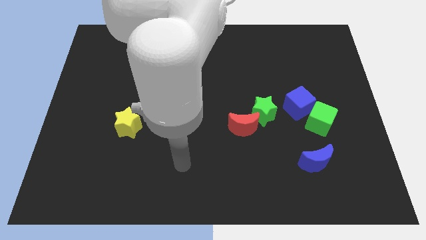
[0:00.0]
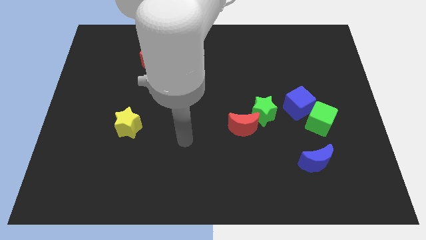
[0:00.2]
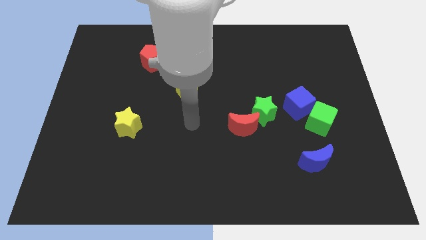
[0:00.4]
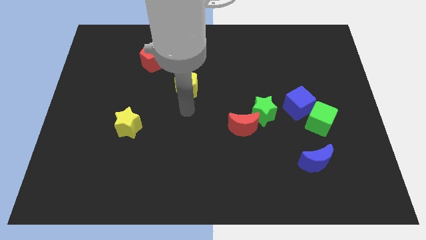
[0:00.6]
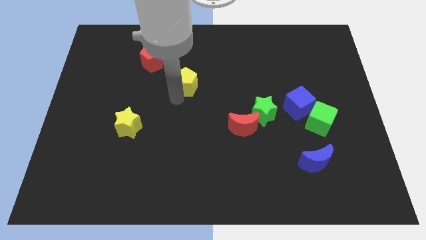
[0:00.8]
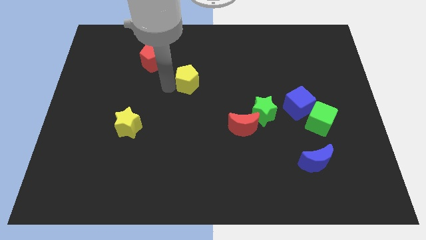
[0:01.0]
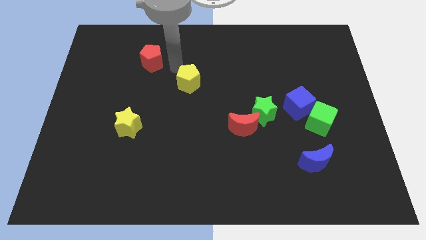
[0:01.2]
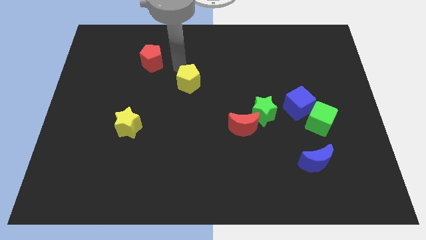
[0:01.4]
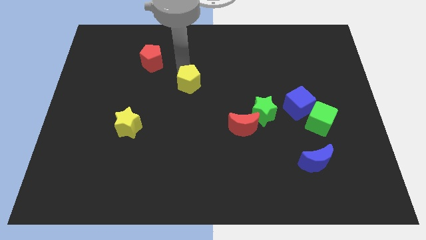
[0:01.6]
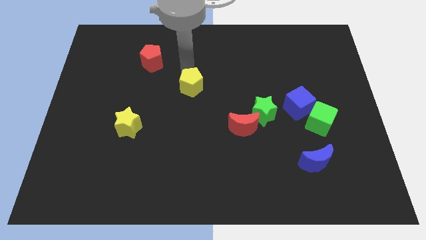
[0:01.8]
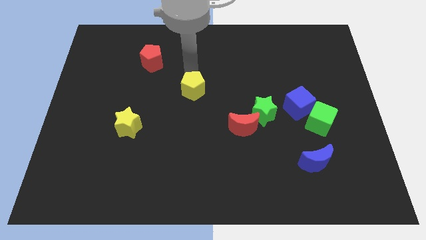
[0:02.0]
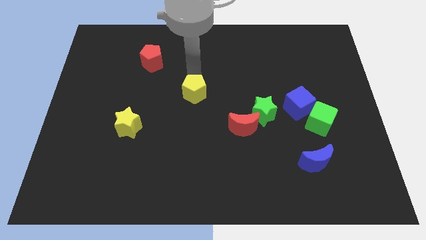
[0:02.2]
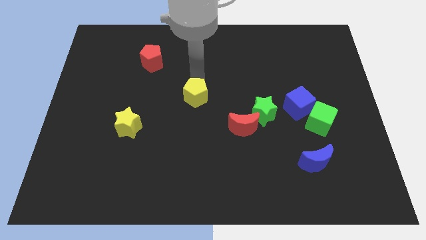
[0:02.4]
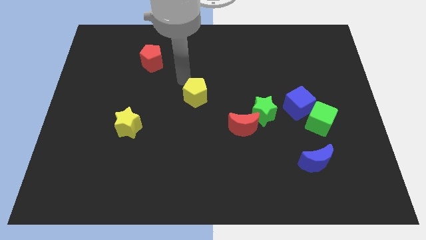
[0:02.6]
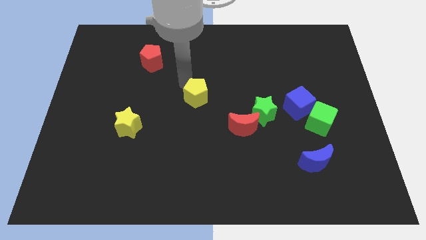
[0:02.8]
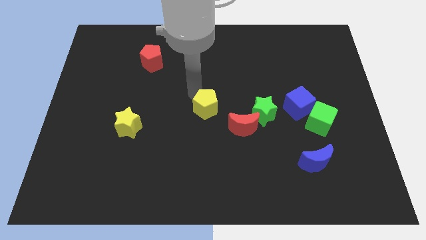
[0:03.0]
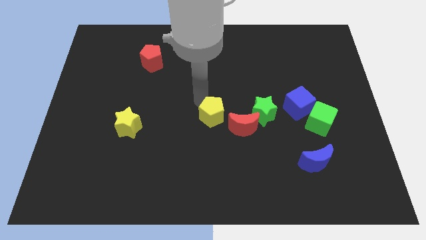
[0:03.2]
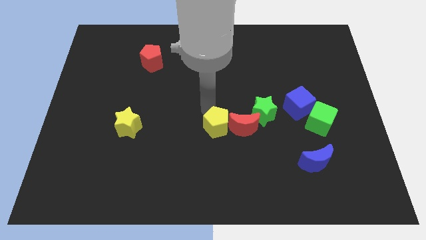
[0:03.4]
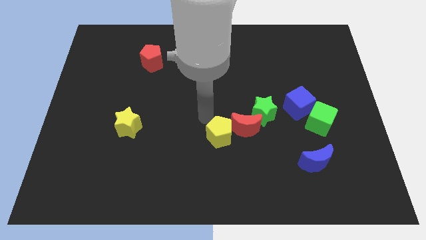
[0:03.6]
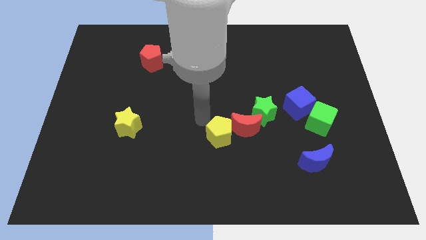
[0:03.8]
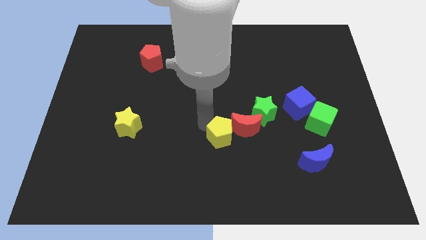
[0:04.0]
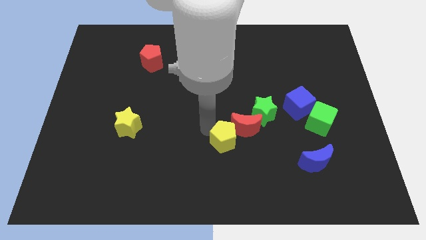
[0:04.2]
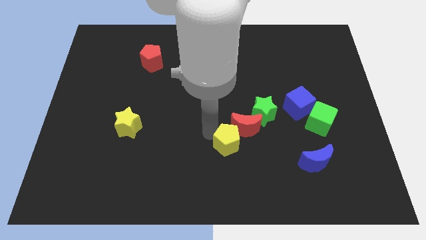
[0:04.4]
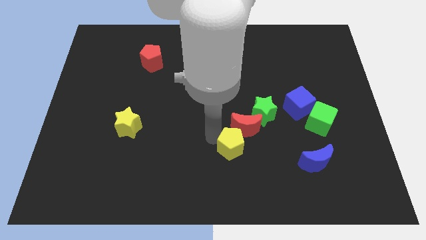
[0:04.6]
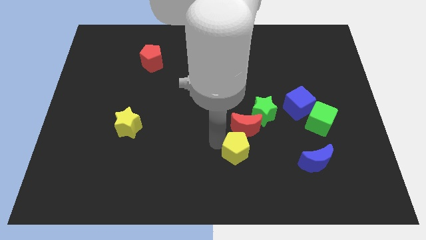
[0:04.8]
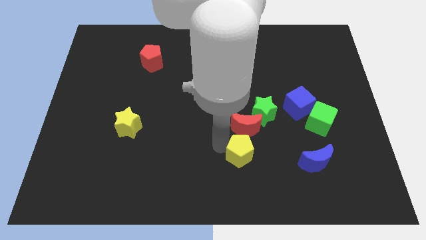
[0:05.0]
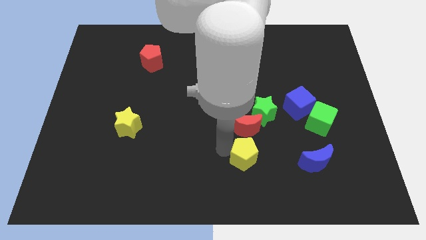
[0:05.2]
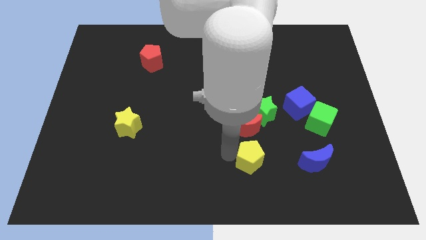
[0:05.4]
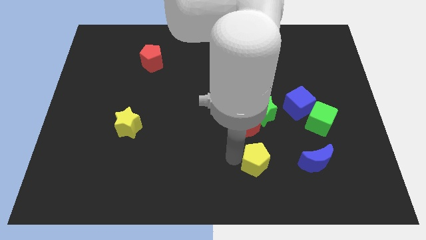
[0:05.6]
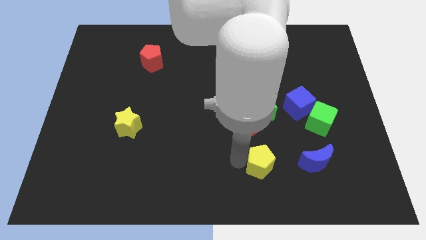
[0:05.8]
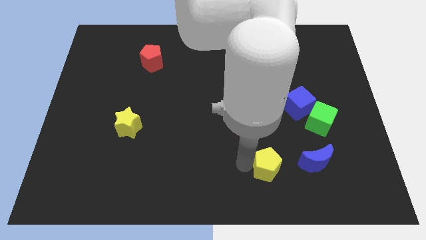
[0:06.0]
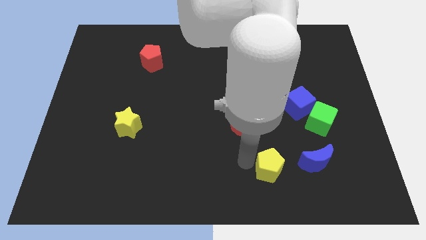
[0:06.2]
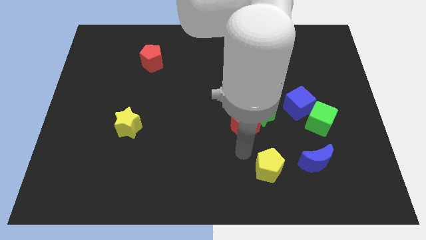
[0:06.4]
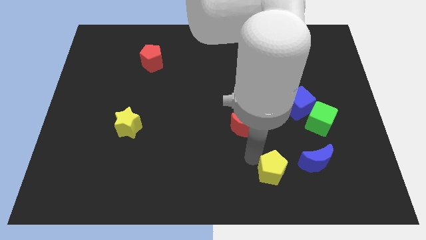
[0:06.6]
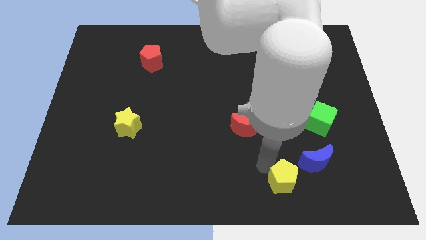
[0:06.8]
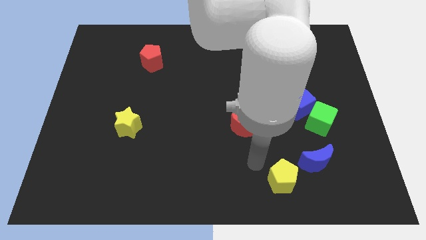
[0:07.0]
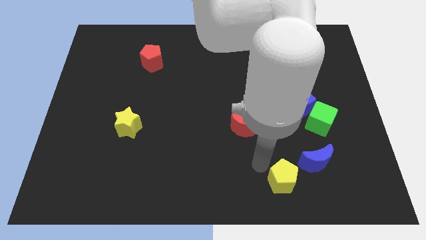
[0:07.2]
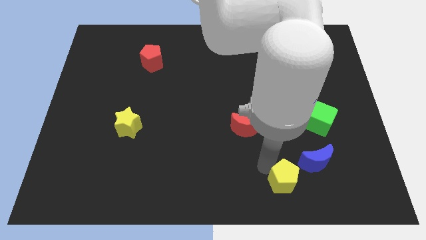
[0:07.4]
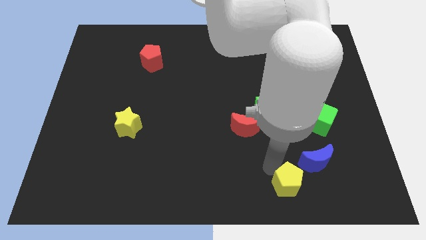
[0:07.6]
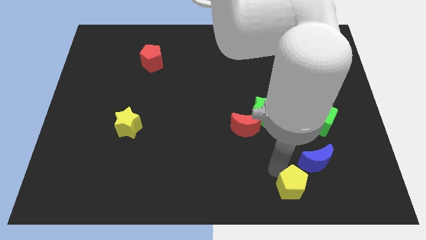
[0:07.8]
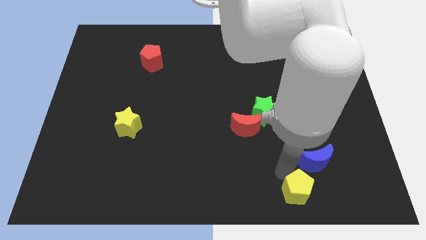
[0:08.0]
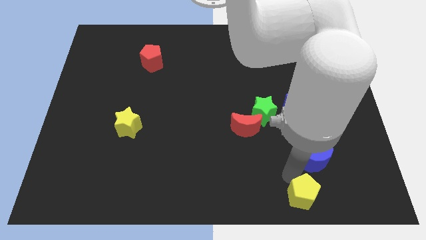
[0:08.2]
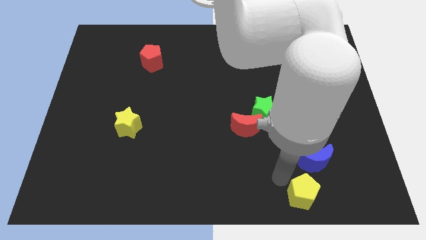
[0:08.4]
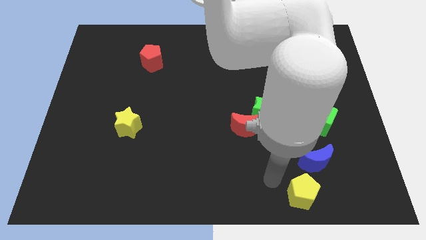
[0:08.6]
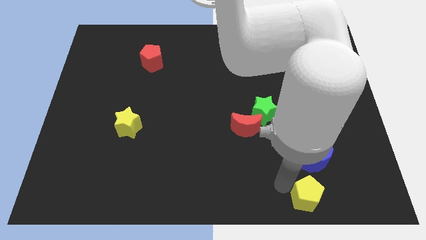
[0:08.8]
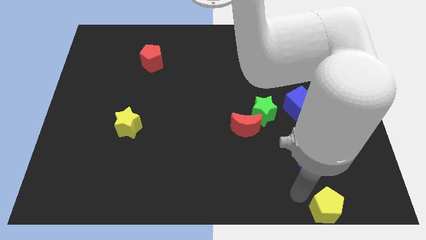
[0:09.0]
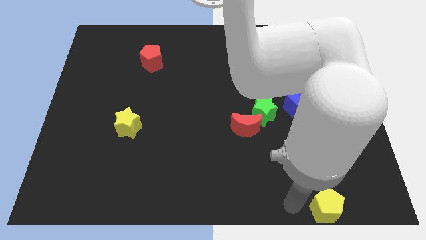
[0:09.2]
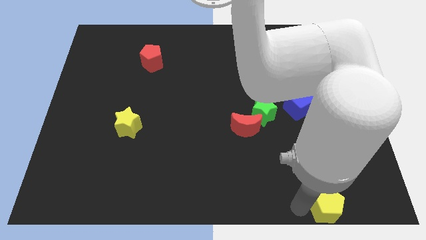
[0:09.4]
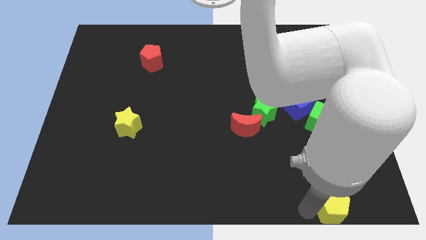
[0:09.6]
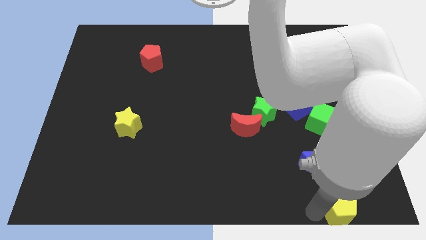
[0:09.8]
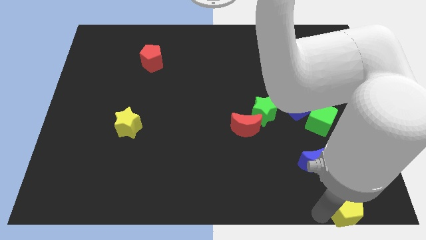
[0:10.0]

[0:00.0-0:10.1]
move the yellow pentagon to the bottom right of the board

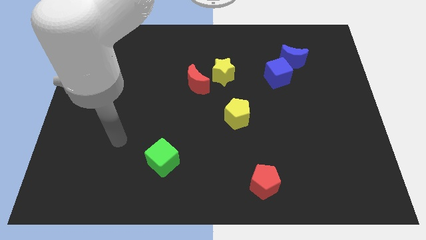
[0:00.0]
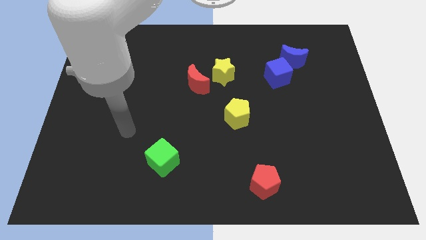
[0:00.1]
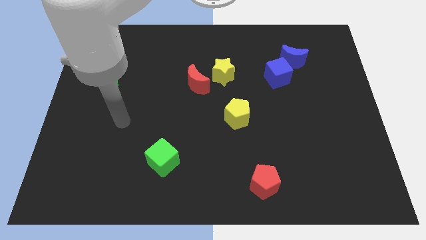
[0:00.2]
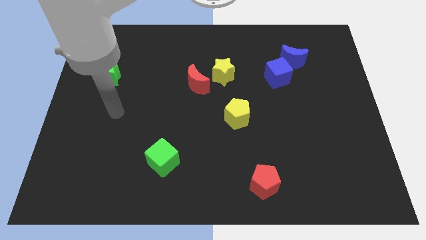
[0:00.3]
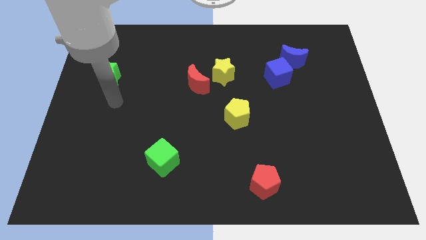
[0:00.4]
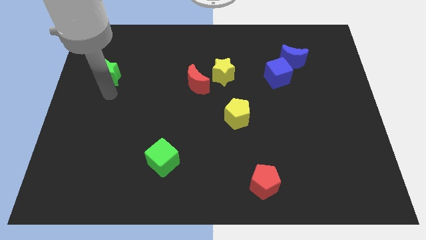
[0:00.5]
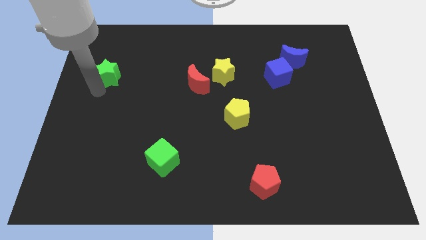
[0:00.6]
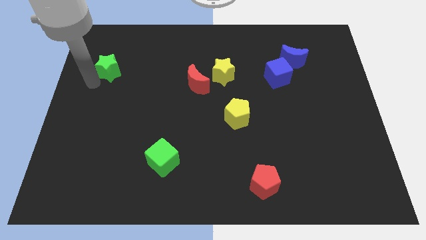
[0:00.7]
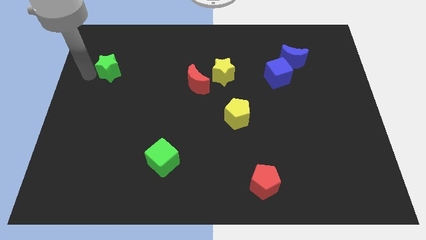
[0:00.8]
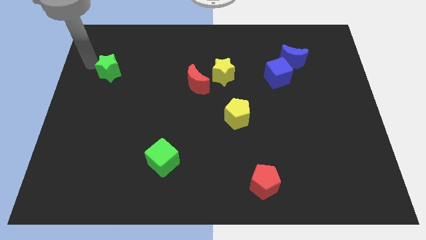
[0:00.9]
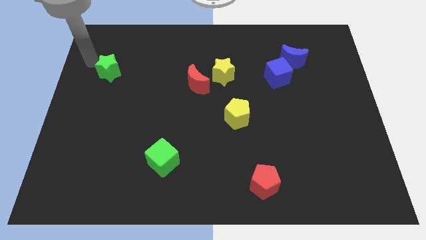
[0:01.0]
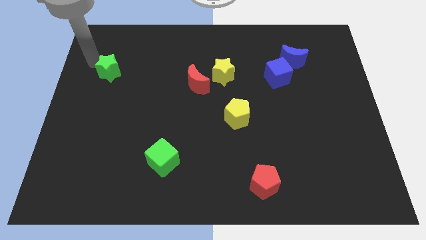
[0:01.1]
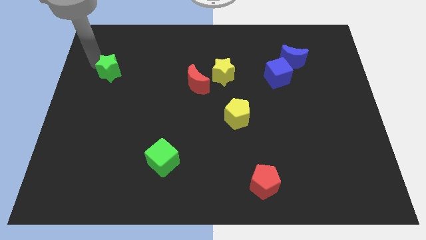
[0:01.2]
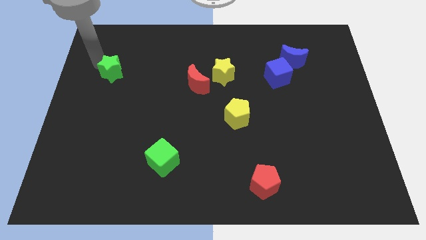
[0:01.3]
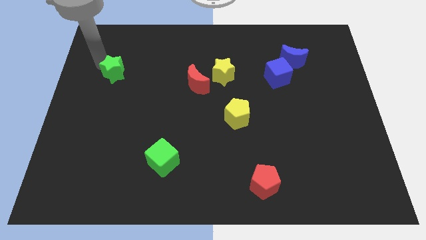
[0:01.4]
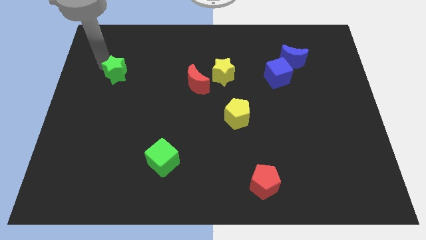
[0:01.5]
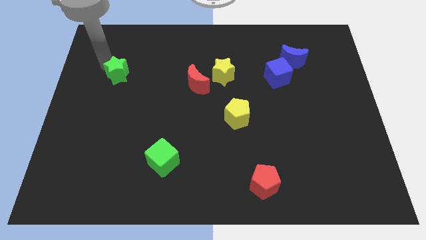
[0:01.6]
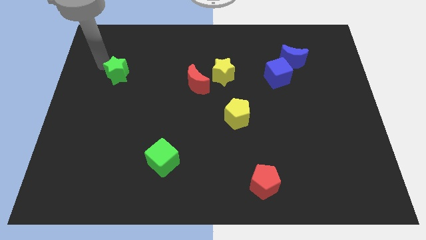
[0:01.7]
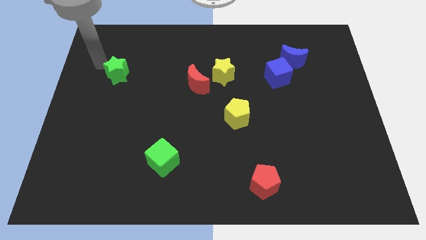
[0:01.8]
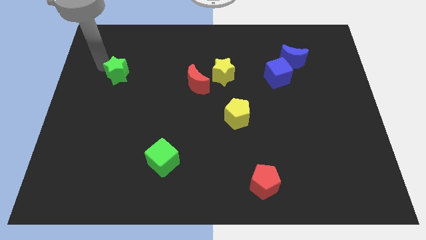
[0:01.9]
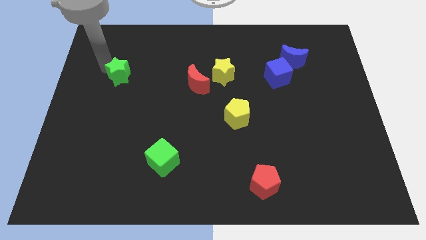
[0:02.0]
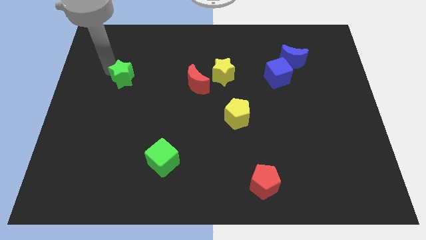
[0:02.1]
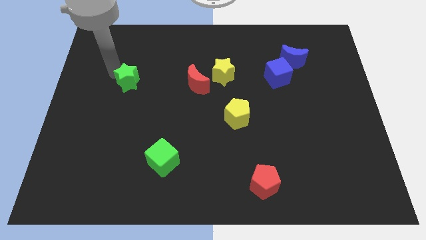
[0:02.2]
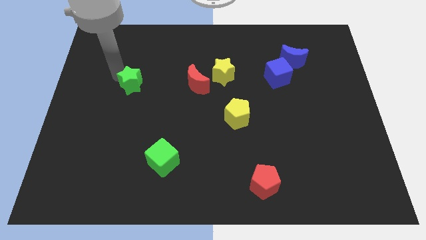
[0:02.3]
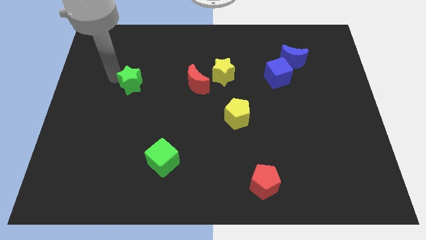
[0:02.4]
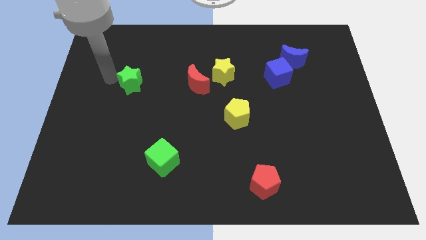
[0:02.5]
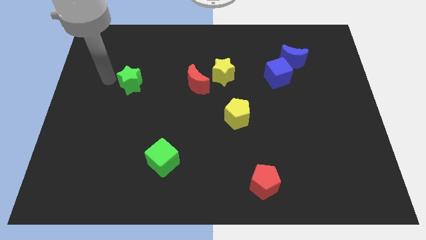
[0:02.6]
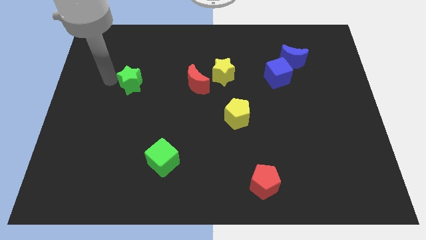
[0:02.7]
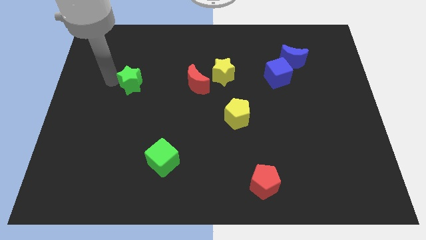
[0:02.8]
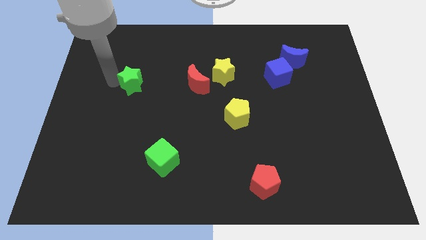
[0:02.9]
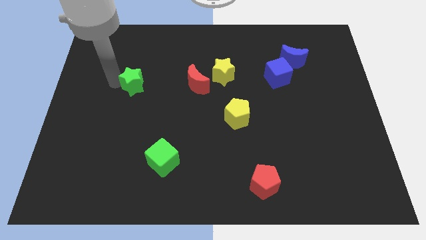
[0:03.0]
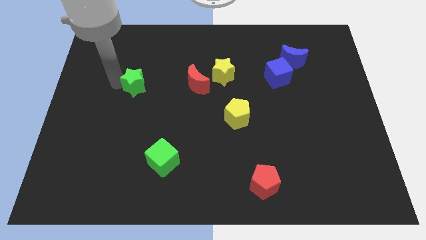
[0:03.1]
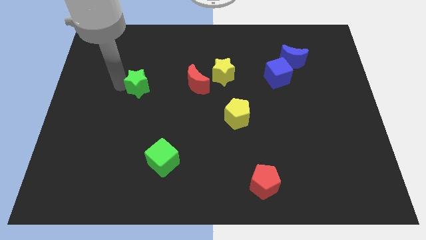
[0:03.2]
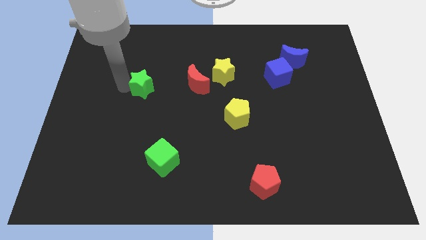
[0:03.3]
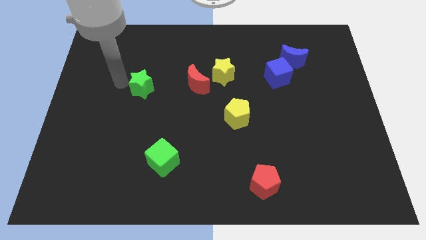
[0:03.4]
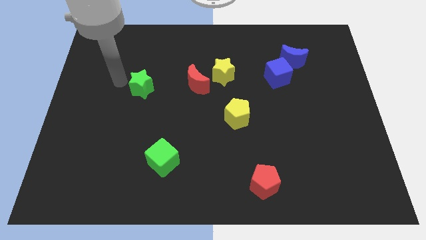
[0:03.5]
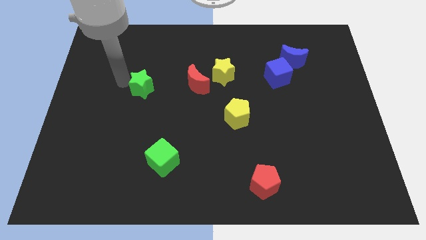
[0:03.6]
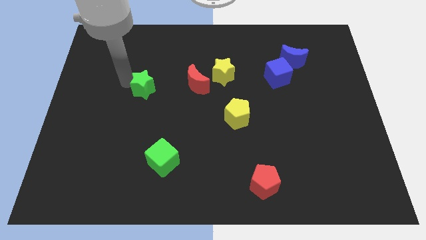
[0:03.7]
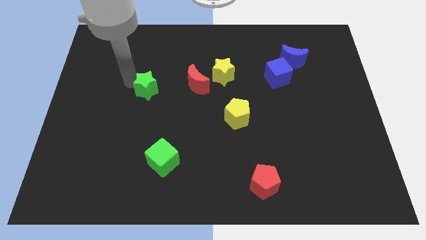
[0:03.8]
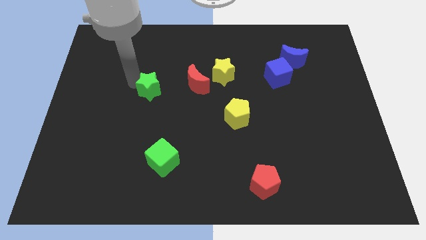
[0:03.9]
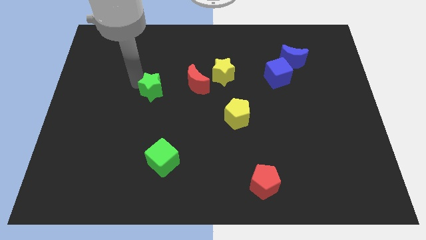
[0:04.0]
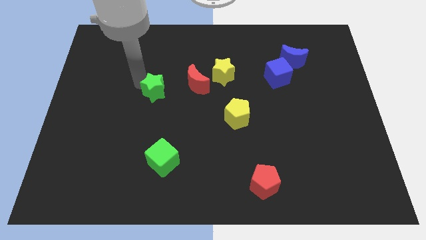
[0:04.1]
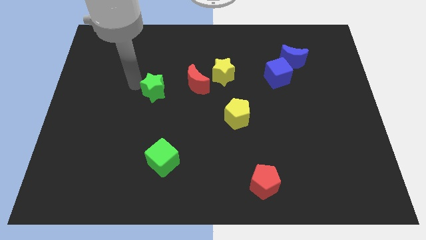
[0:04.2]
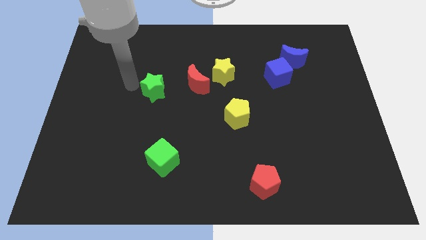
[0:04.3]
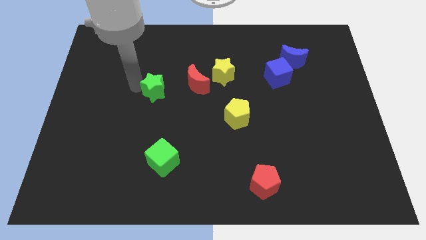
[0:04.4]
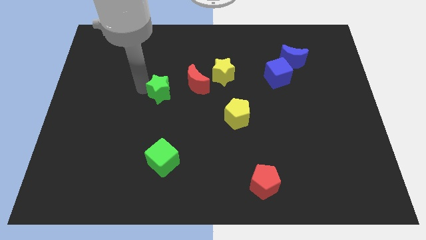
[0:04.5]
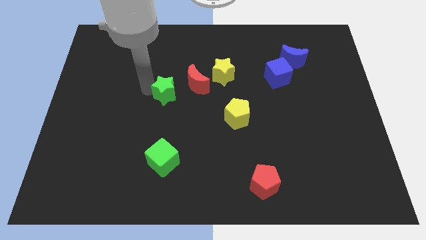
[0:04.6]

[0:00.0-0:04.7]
slide the green star to the middle
